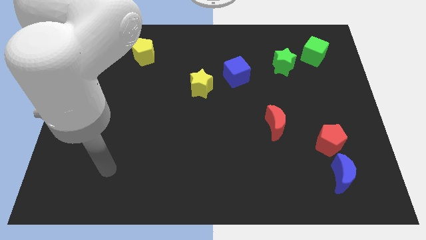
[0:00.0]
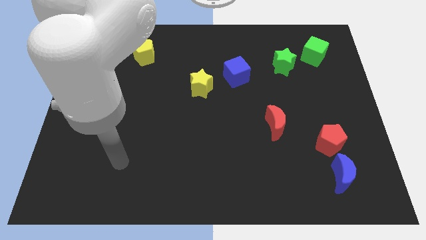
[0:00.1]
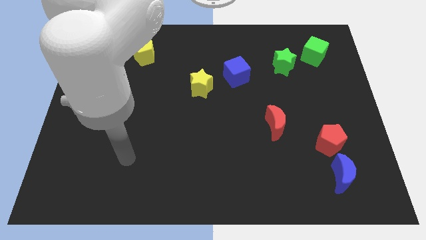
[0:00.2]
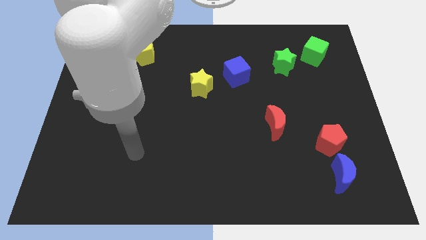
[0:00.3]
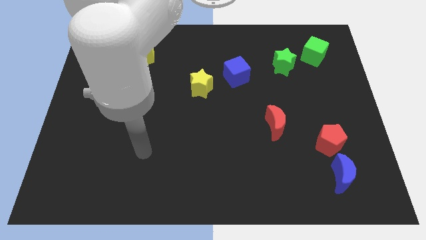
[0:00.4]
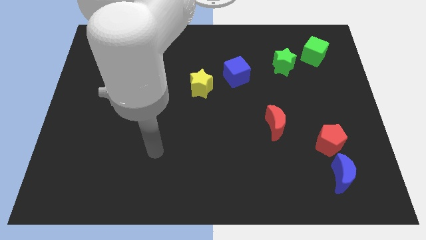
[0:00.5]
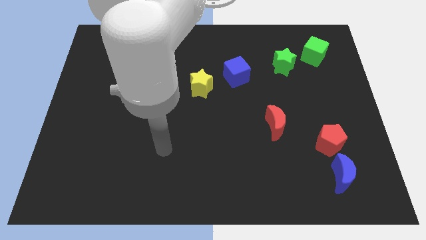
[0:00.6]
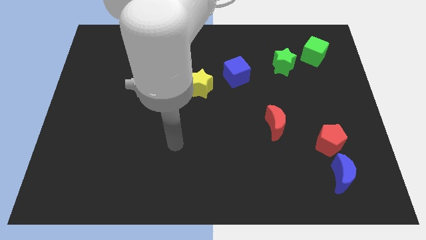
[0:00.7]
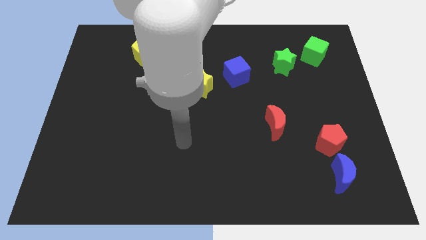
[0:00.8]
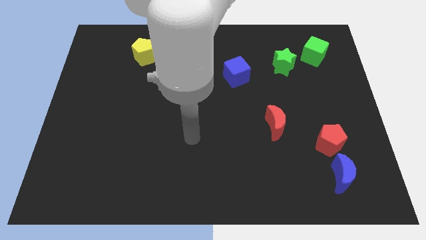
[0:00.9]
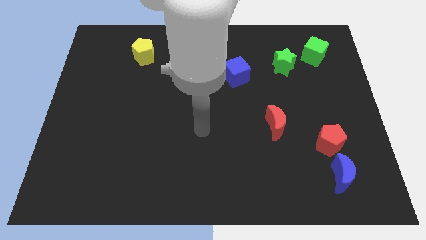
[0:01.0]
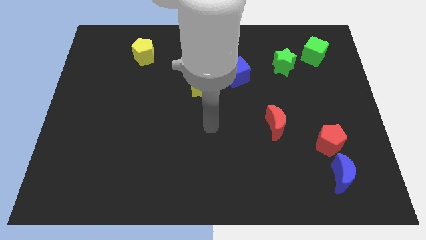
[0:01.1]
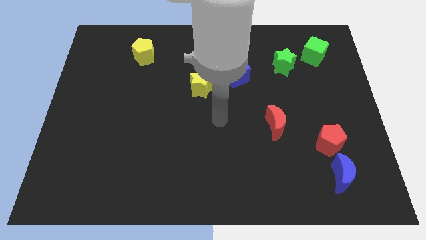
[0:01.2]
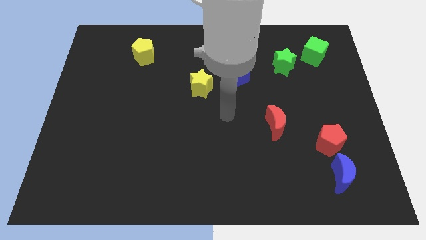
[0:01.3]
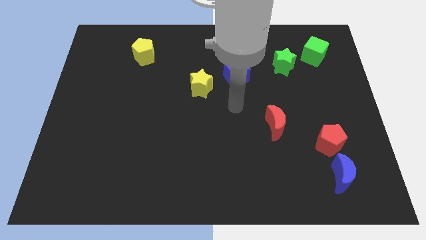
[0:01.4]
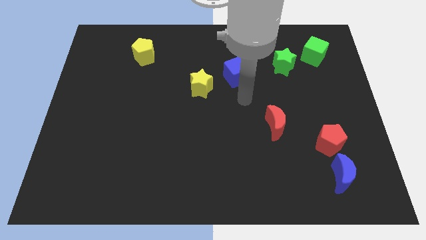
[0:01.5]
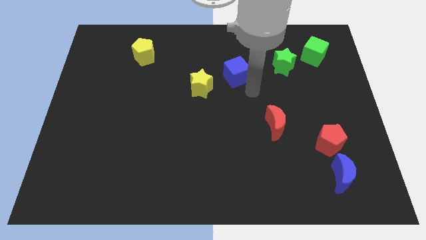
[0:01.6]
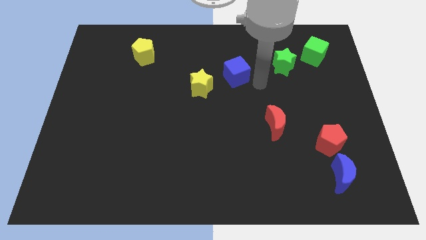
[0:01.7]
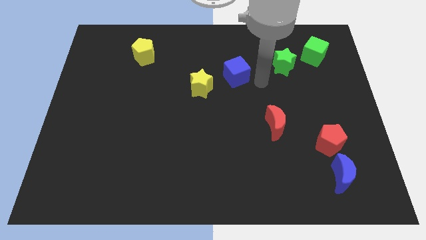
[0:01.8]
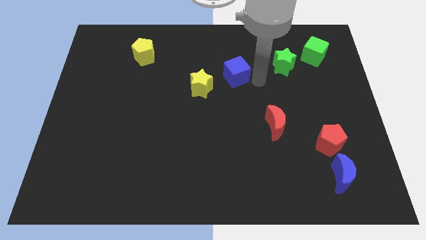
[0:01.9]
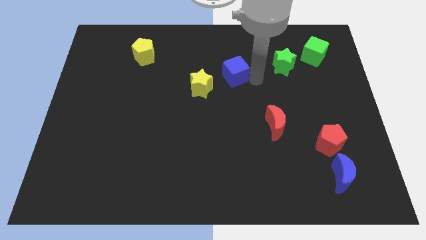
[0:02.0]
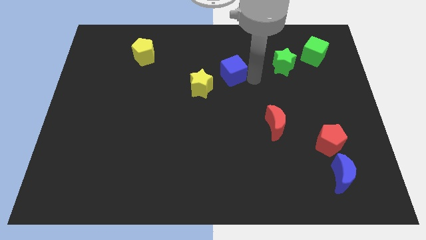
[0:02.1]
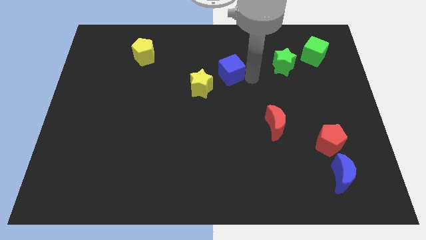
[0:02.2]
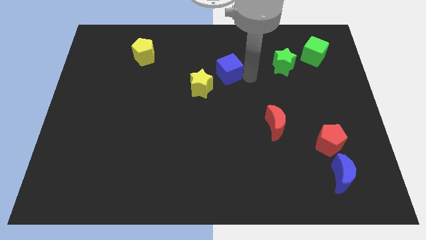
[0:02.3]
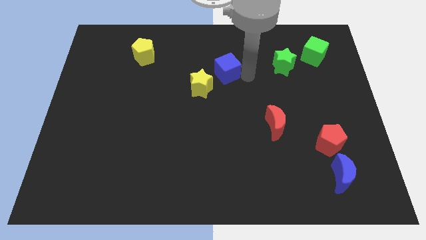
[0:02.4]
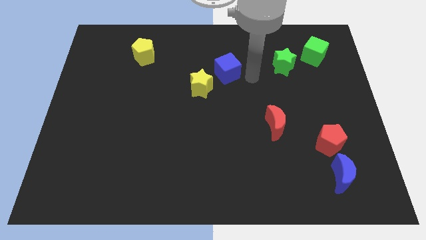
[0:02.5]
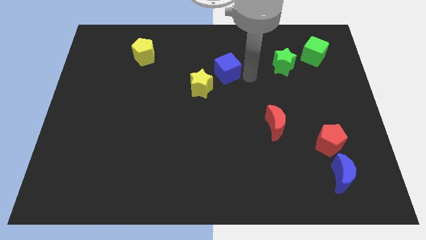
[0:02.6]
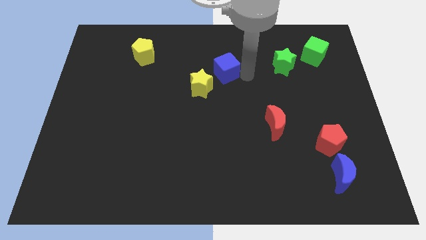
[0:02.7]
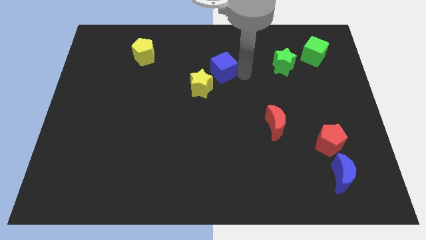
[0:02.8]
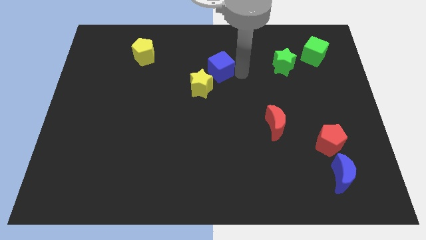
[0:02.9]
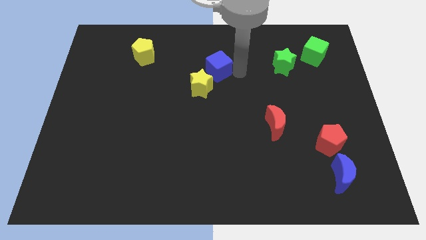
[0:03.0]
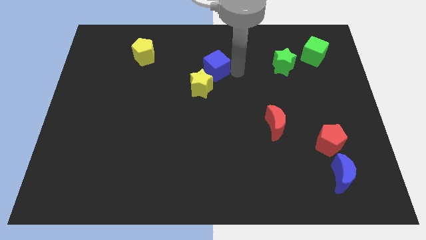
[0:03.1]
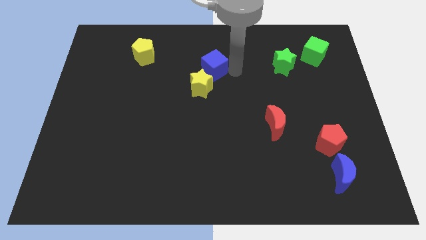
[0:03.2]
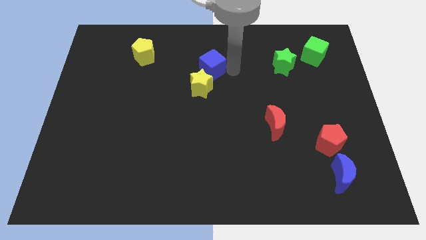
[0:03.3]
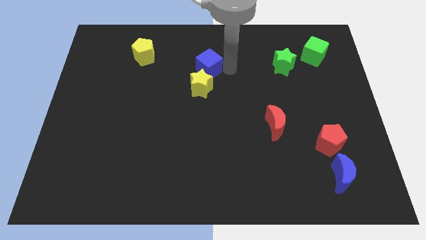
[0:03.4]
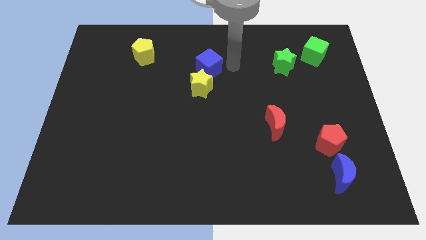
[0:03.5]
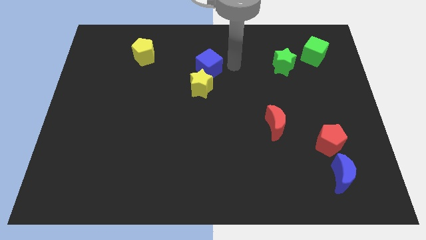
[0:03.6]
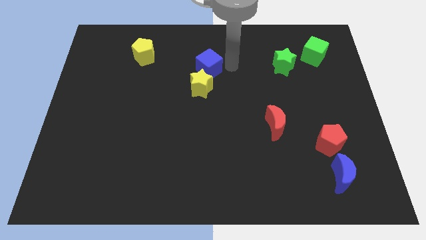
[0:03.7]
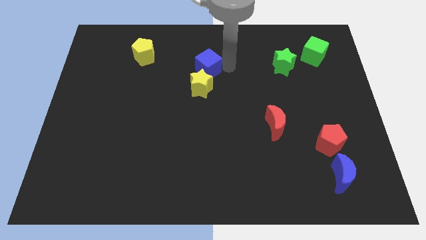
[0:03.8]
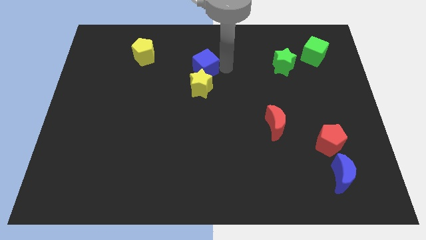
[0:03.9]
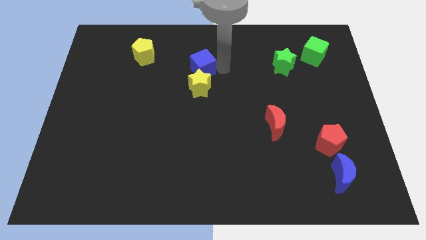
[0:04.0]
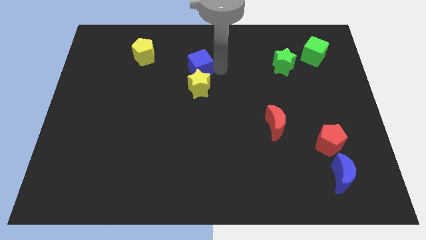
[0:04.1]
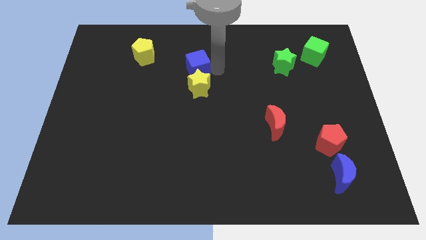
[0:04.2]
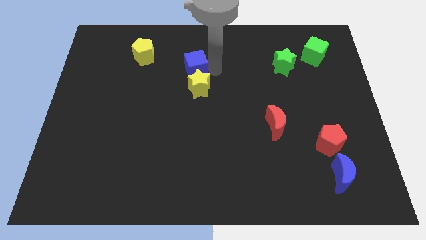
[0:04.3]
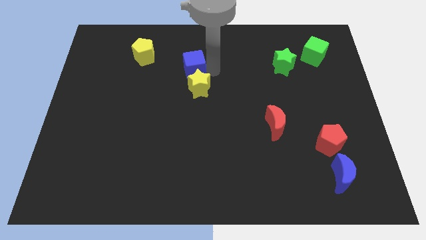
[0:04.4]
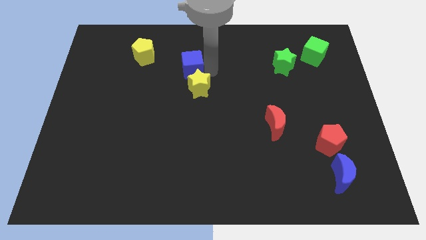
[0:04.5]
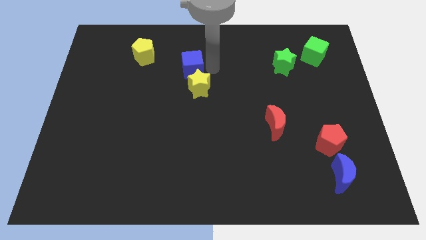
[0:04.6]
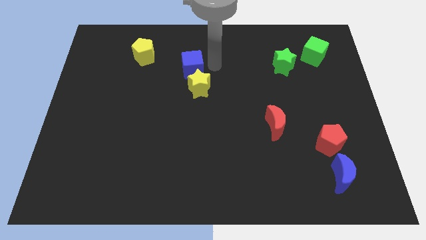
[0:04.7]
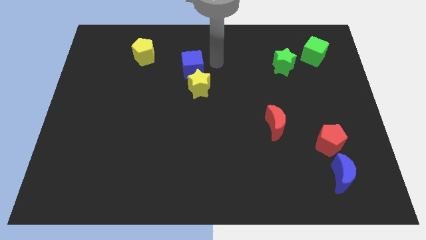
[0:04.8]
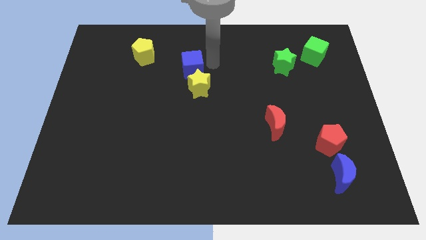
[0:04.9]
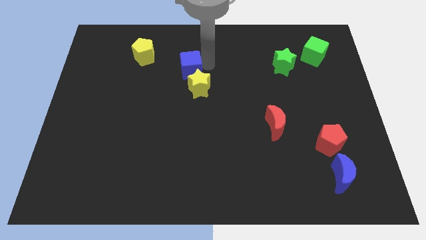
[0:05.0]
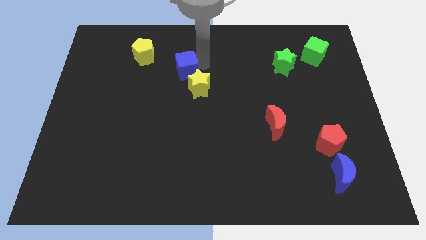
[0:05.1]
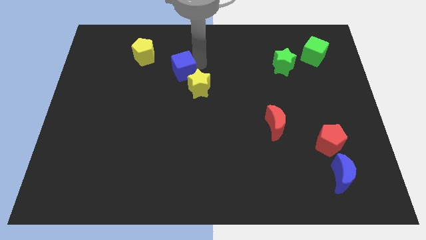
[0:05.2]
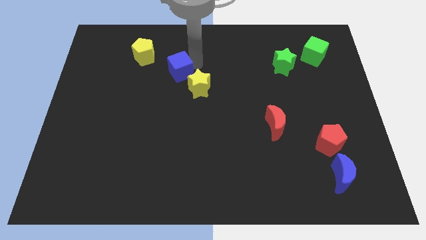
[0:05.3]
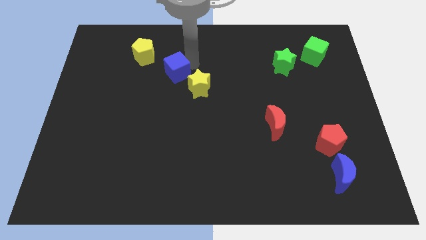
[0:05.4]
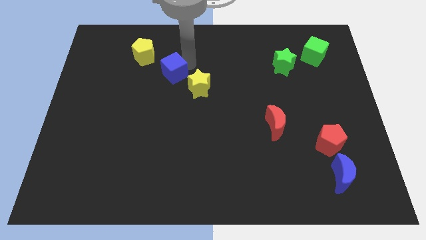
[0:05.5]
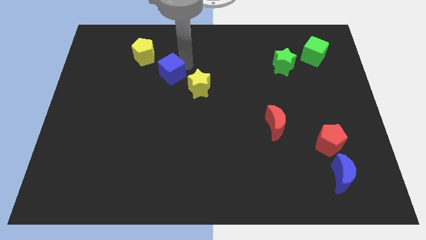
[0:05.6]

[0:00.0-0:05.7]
push the blue cube to the left side of the yellow star

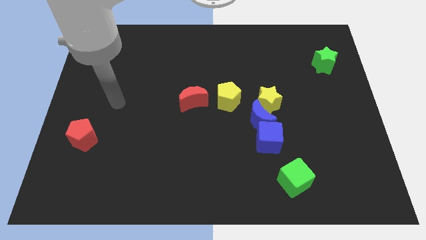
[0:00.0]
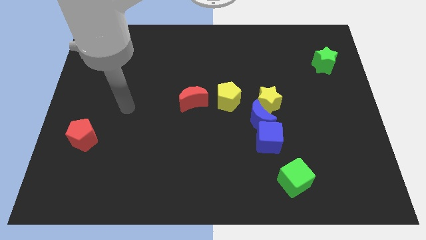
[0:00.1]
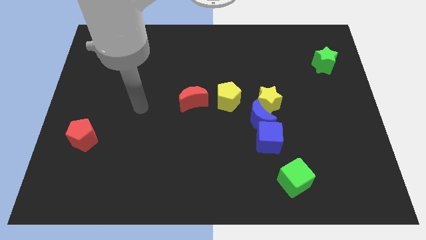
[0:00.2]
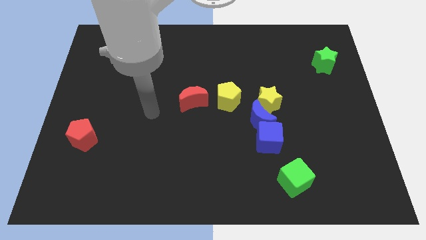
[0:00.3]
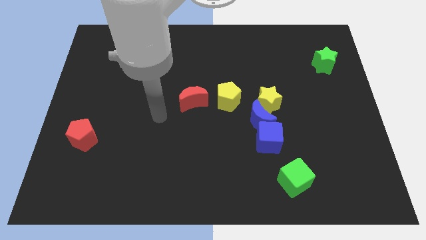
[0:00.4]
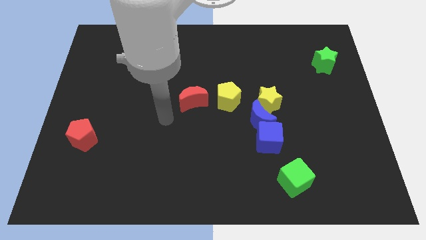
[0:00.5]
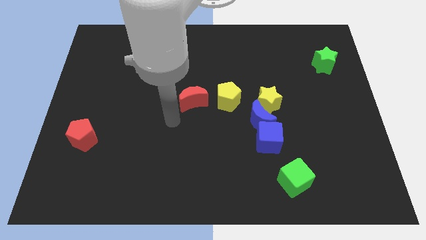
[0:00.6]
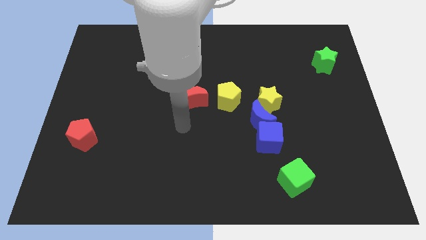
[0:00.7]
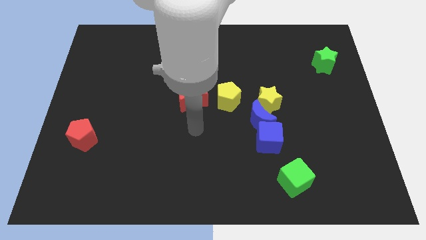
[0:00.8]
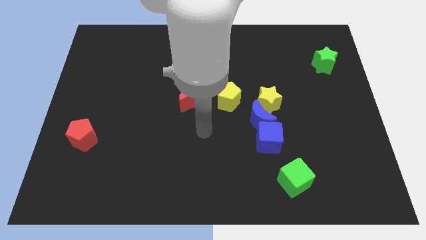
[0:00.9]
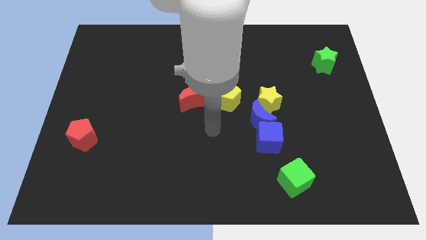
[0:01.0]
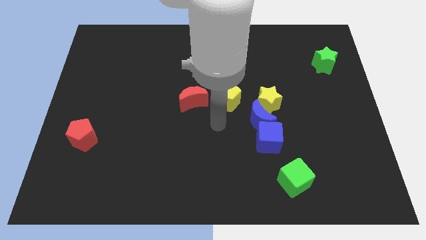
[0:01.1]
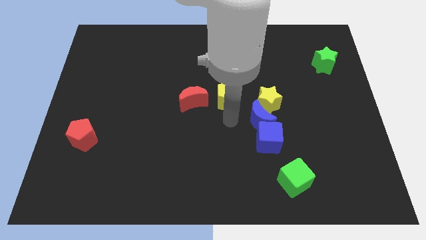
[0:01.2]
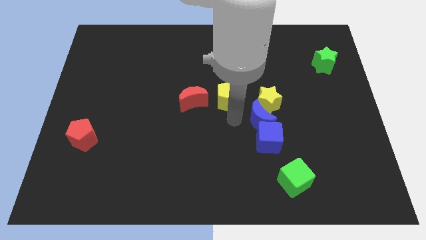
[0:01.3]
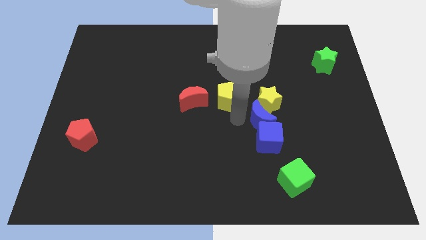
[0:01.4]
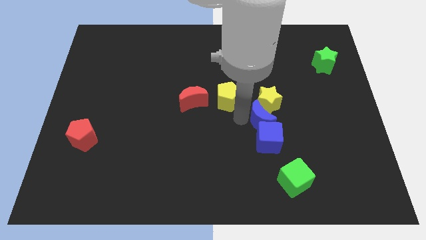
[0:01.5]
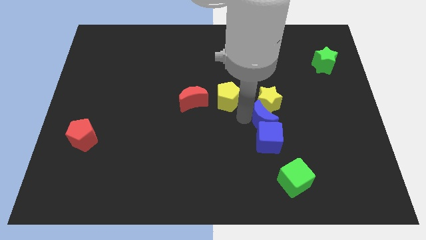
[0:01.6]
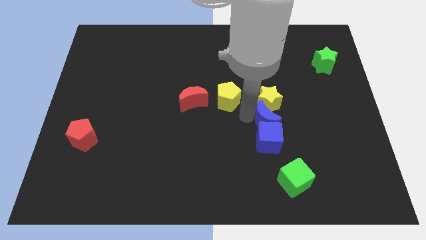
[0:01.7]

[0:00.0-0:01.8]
push the blue moon diagonally down and to the right of the yellow star

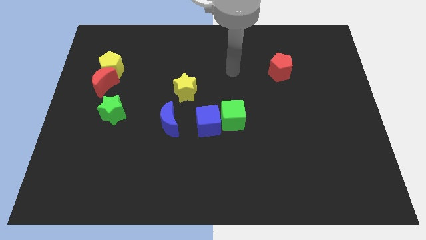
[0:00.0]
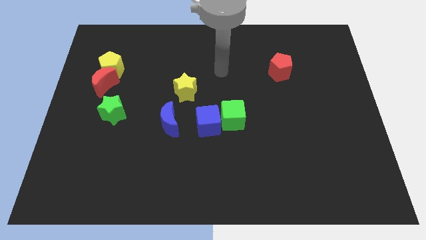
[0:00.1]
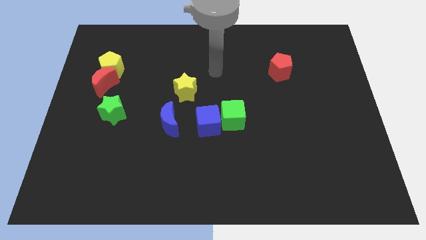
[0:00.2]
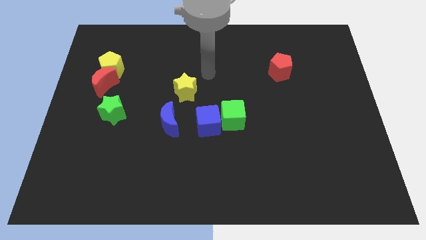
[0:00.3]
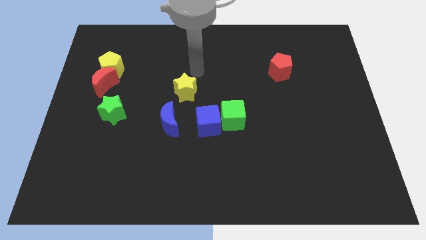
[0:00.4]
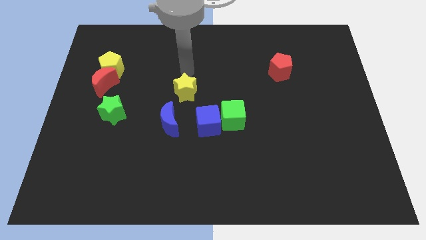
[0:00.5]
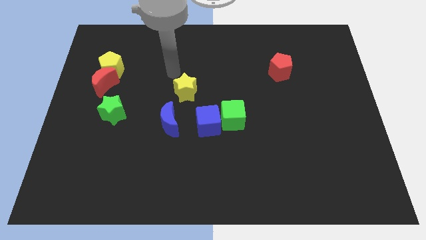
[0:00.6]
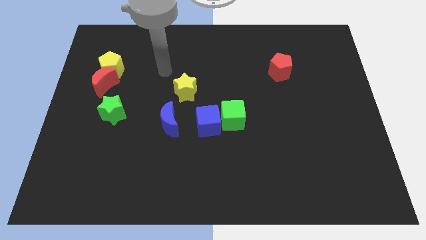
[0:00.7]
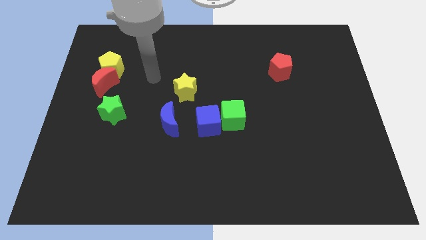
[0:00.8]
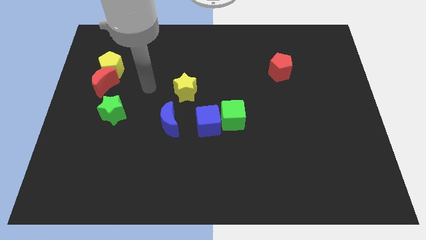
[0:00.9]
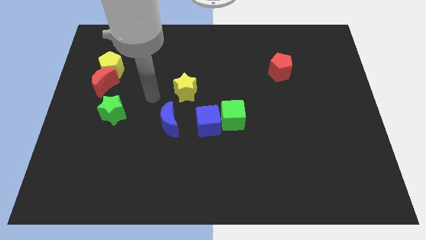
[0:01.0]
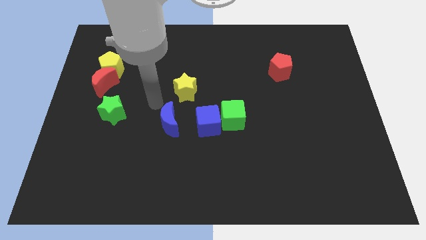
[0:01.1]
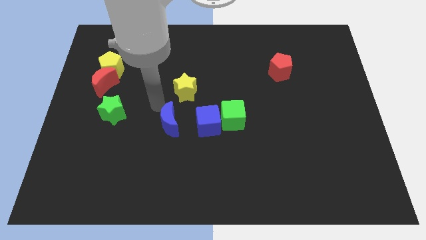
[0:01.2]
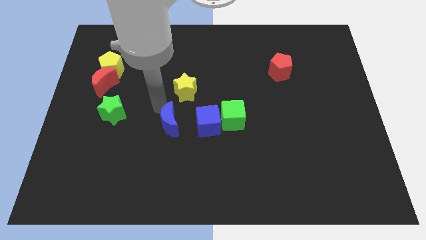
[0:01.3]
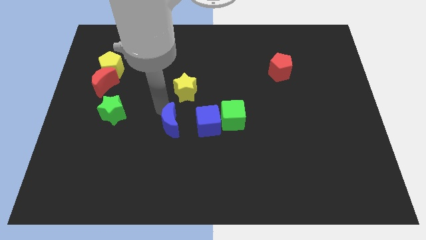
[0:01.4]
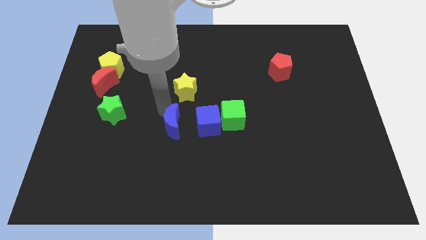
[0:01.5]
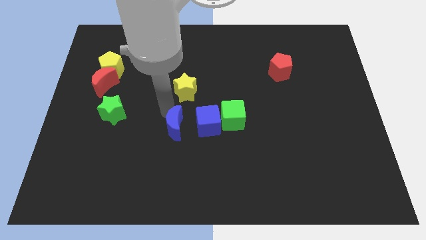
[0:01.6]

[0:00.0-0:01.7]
push the blue moon to the bottom left side of the blue cube
